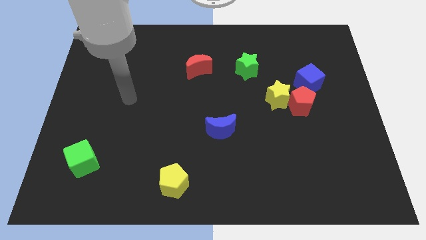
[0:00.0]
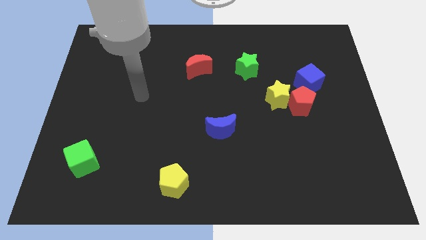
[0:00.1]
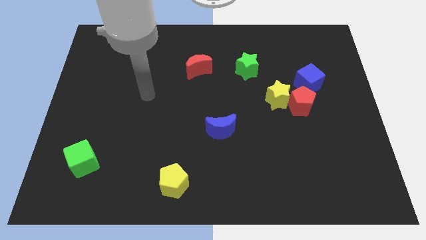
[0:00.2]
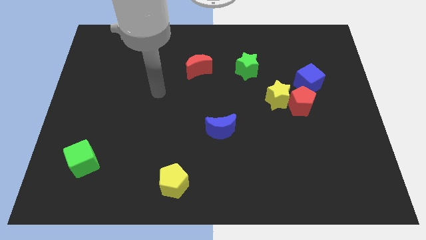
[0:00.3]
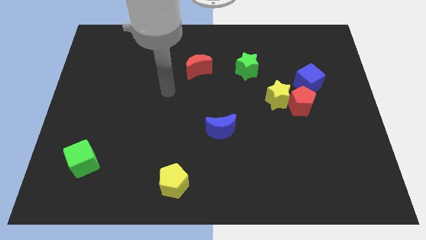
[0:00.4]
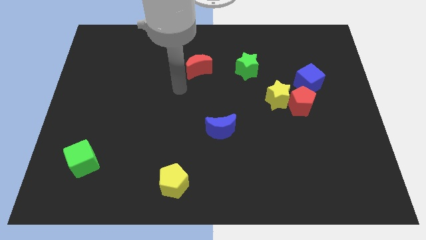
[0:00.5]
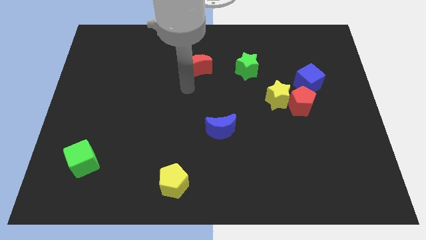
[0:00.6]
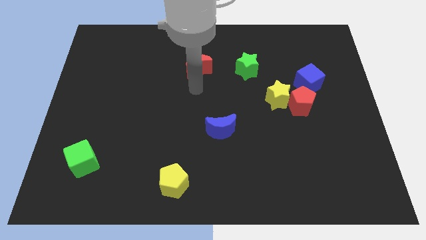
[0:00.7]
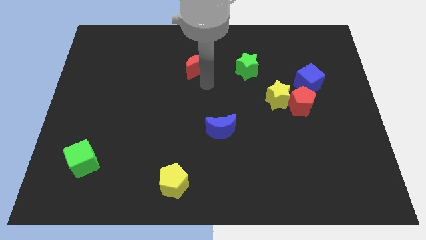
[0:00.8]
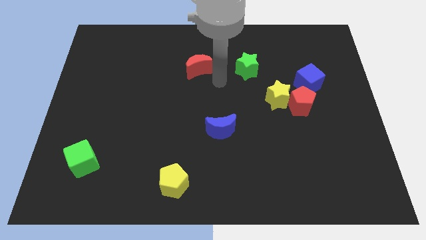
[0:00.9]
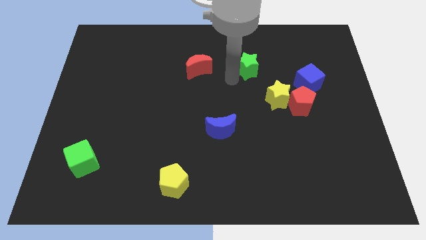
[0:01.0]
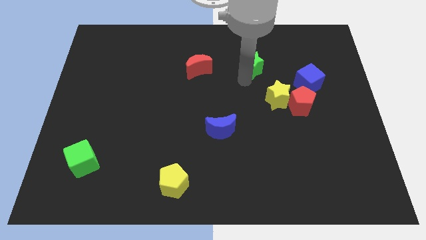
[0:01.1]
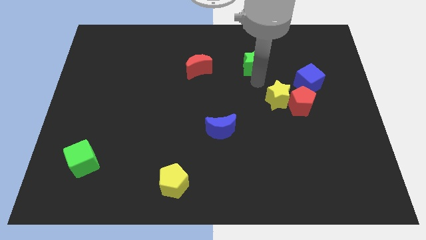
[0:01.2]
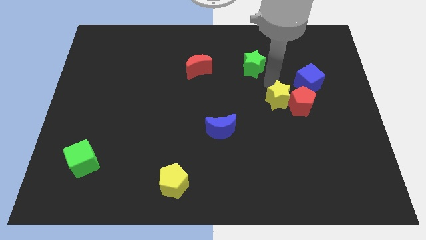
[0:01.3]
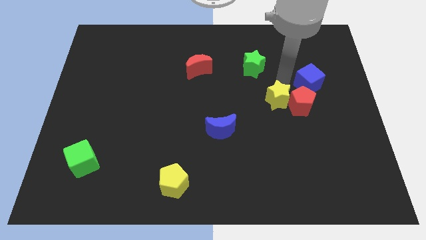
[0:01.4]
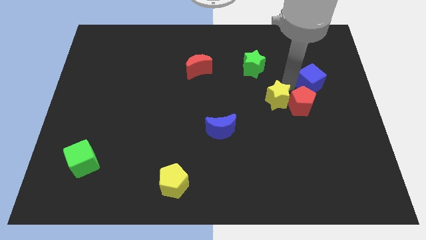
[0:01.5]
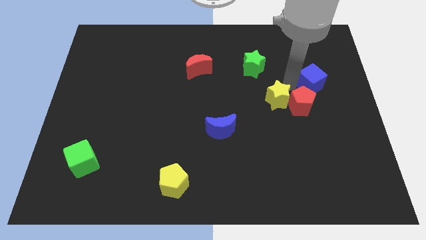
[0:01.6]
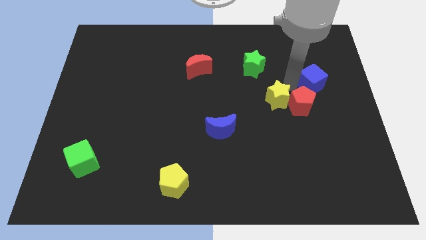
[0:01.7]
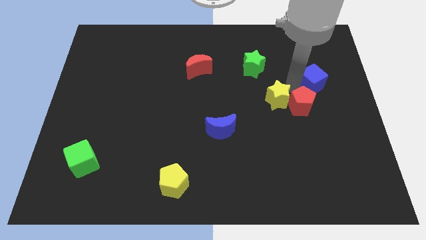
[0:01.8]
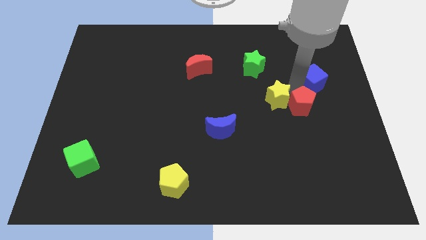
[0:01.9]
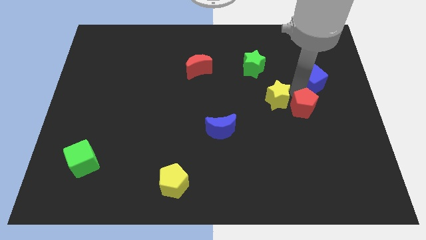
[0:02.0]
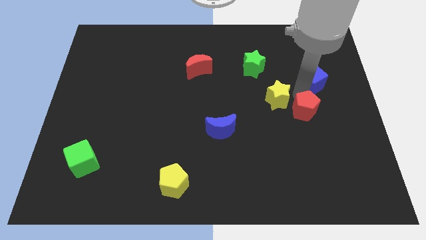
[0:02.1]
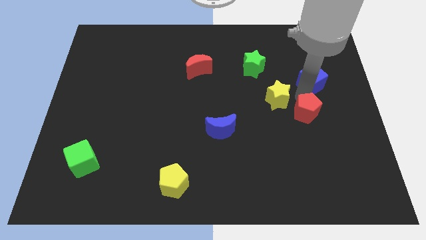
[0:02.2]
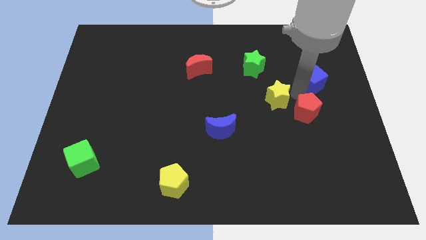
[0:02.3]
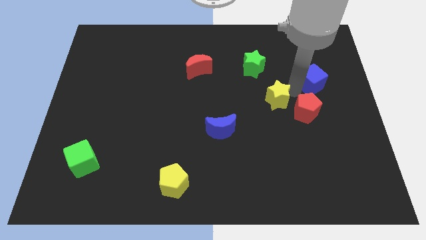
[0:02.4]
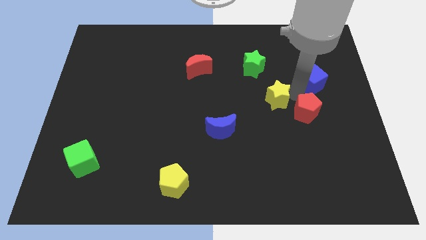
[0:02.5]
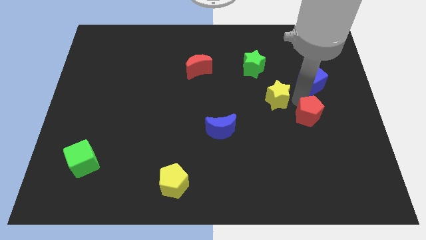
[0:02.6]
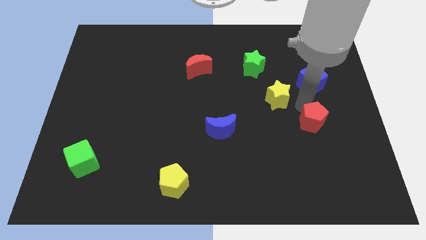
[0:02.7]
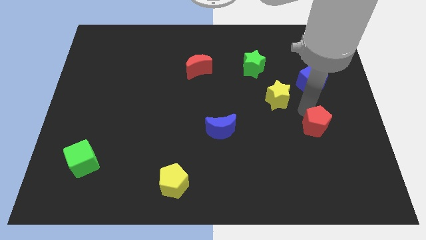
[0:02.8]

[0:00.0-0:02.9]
separate the red pentagon from the yellow star and blue cube

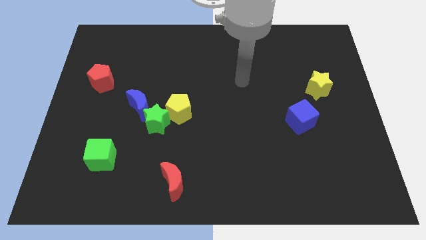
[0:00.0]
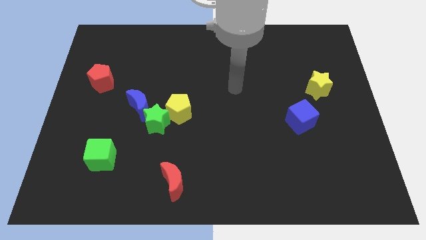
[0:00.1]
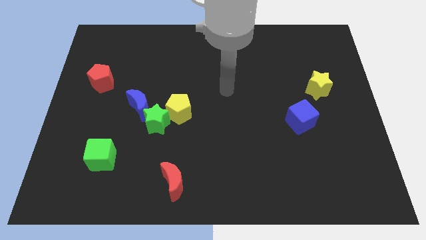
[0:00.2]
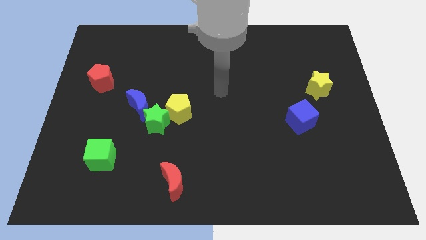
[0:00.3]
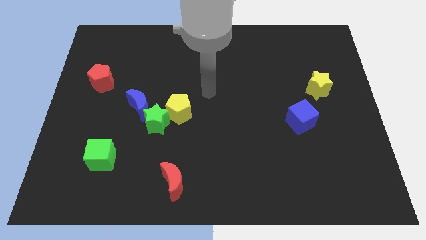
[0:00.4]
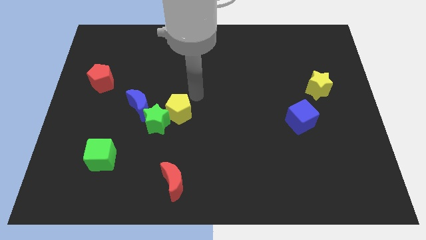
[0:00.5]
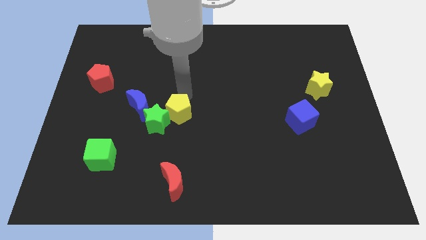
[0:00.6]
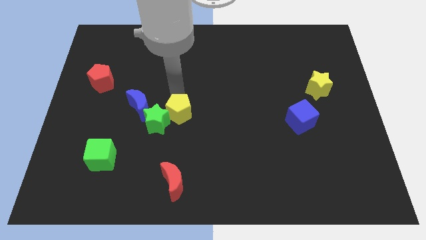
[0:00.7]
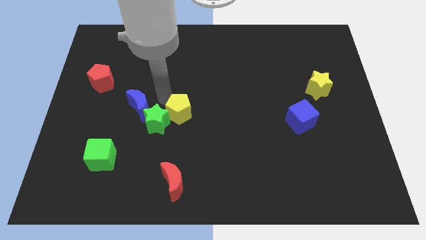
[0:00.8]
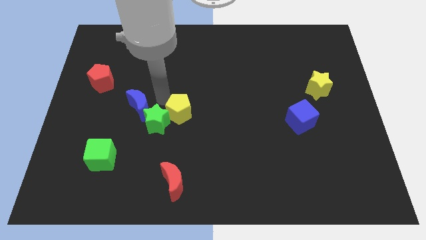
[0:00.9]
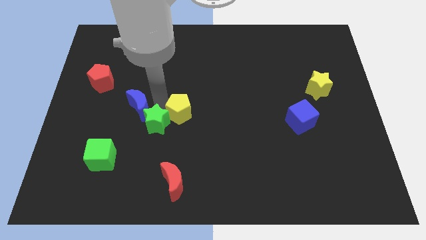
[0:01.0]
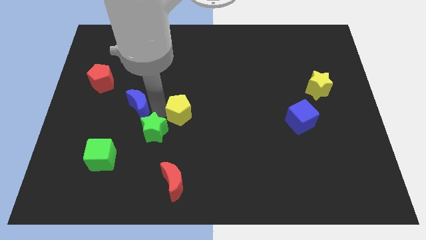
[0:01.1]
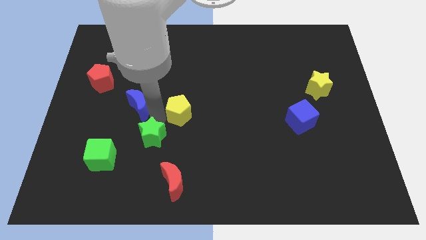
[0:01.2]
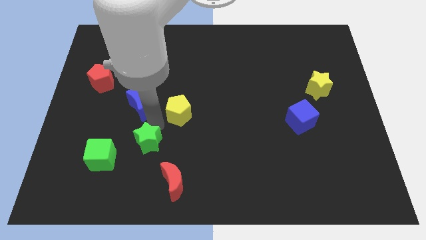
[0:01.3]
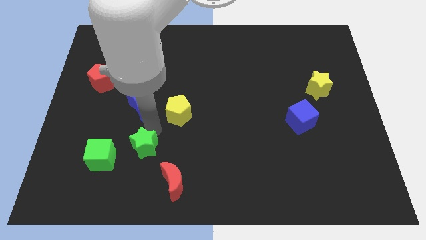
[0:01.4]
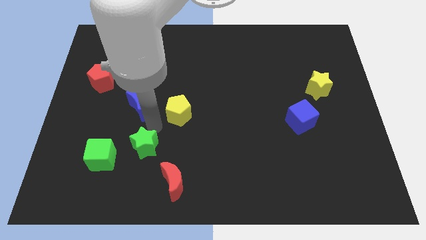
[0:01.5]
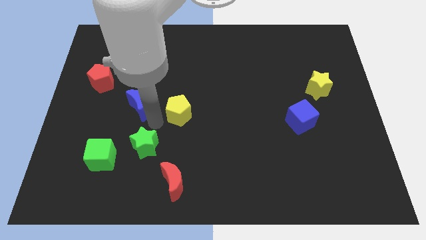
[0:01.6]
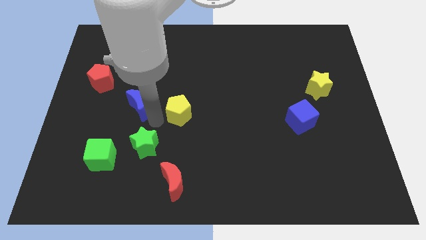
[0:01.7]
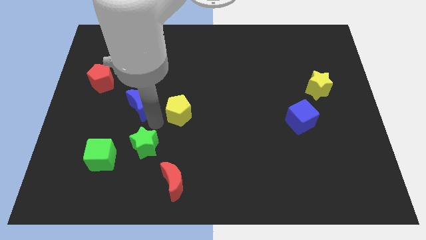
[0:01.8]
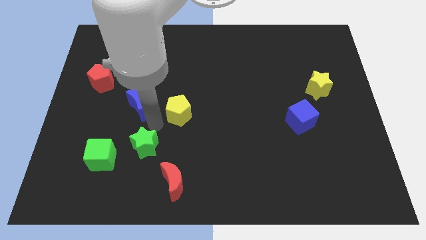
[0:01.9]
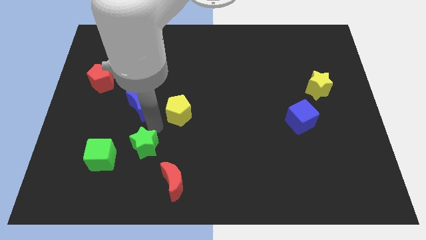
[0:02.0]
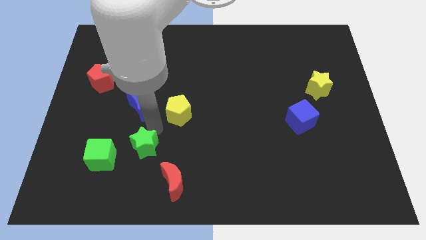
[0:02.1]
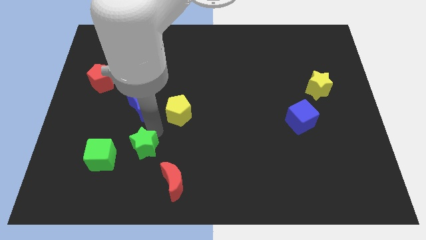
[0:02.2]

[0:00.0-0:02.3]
pull the green star apart from the yellow pentagon and blue moon

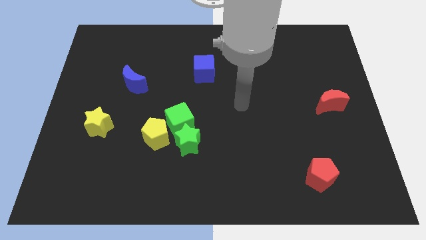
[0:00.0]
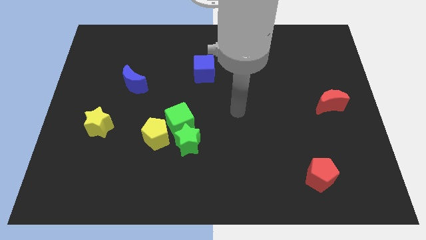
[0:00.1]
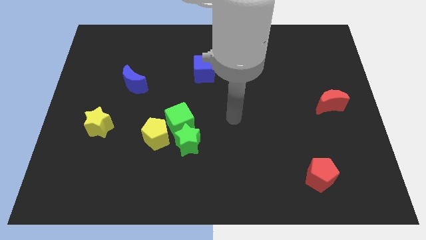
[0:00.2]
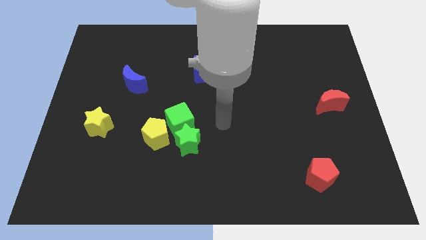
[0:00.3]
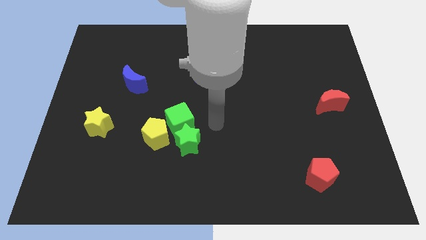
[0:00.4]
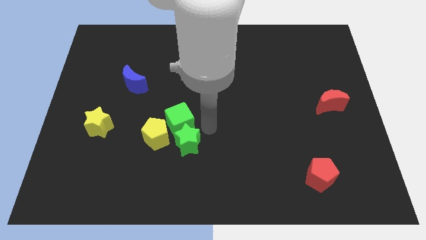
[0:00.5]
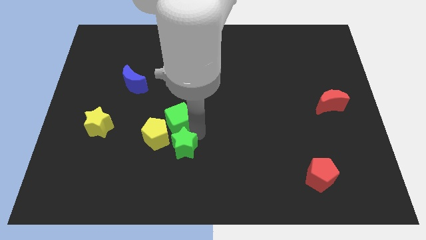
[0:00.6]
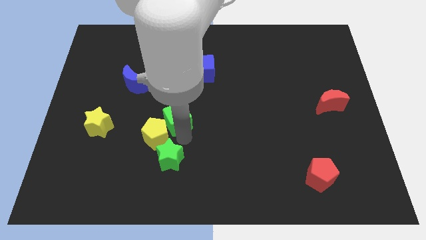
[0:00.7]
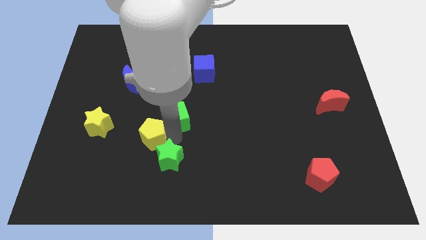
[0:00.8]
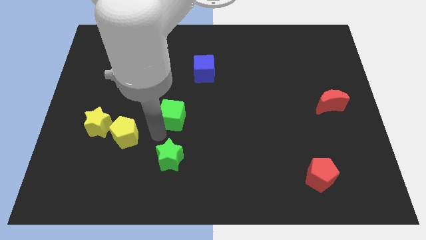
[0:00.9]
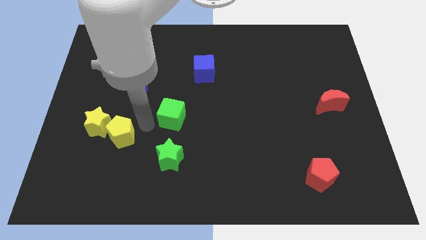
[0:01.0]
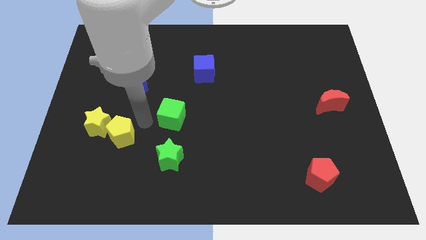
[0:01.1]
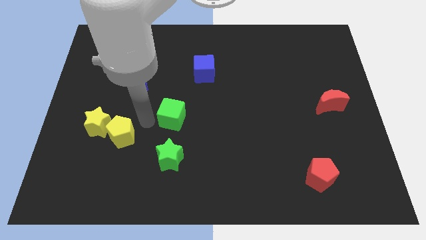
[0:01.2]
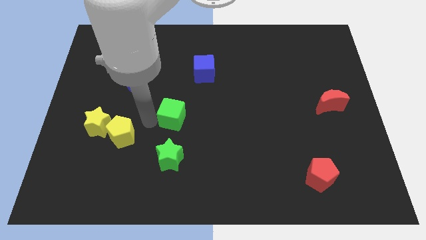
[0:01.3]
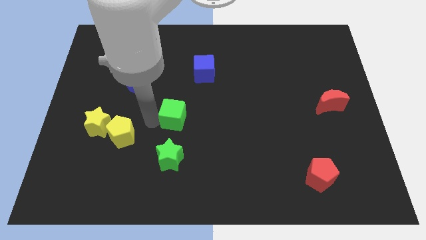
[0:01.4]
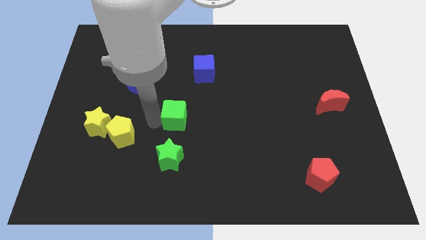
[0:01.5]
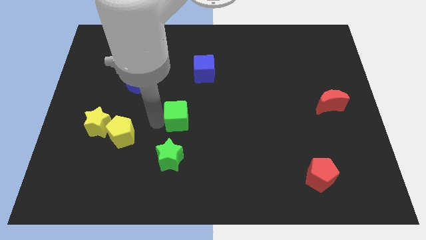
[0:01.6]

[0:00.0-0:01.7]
move the green cube away from the green star and yellow pentagon

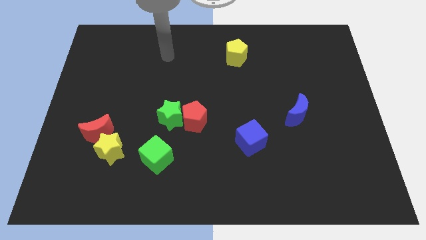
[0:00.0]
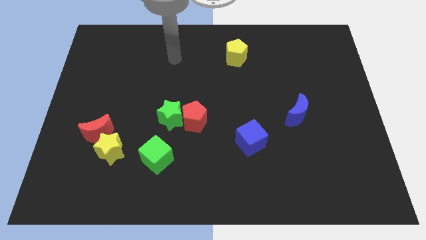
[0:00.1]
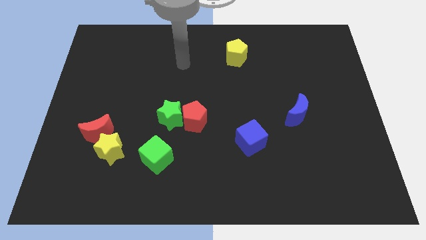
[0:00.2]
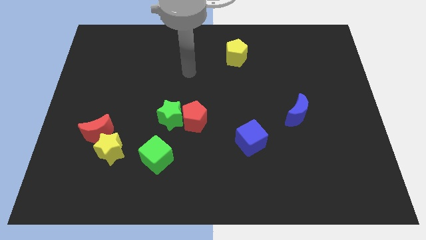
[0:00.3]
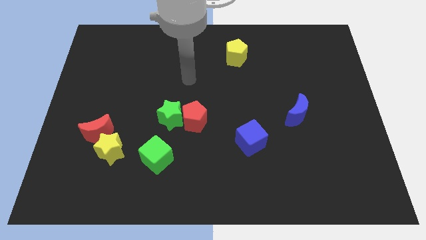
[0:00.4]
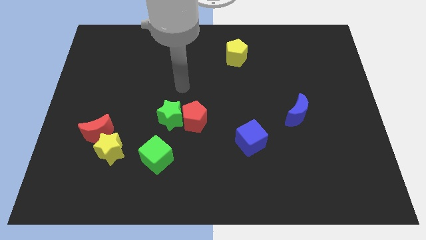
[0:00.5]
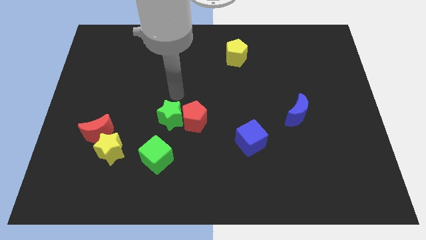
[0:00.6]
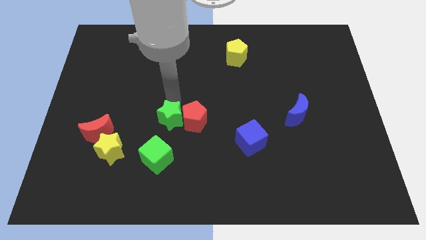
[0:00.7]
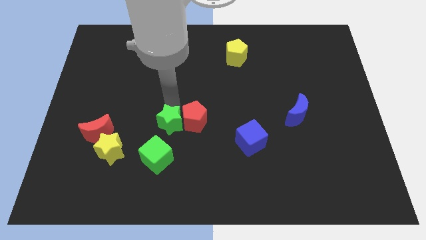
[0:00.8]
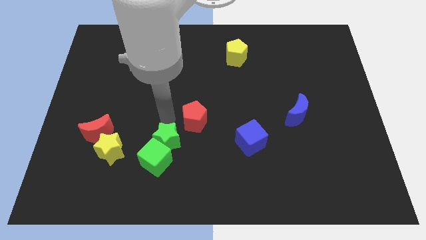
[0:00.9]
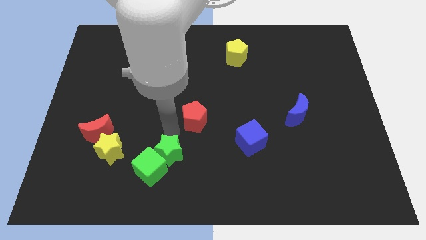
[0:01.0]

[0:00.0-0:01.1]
separate the red pentagon from the green star

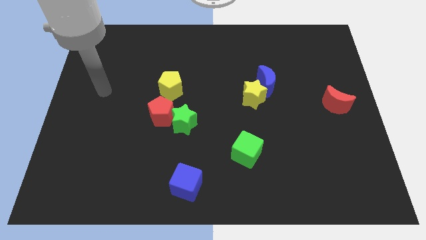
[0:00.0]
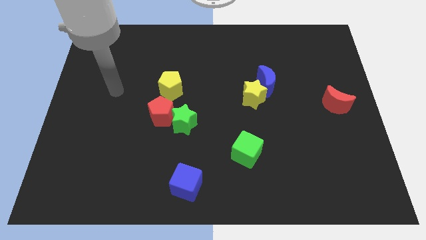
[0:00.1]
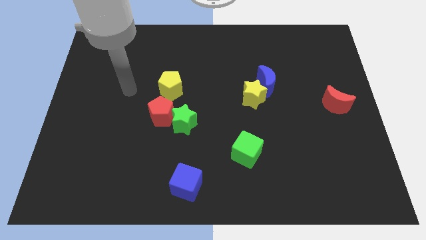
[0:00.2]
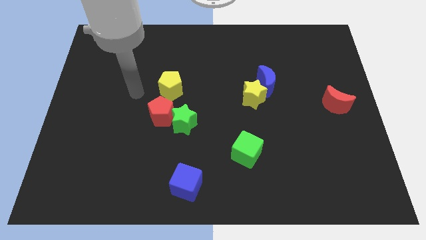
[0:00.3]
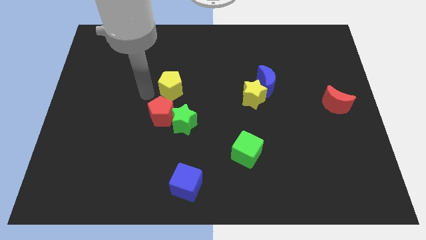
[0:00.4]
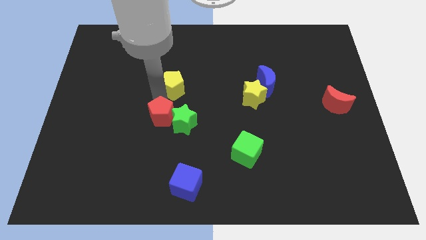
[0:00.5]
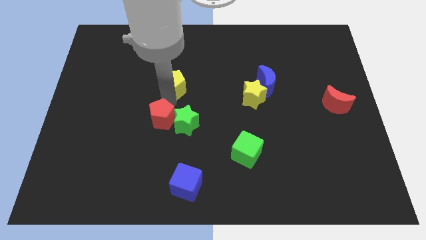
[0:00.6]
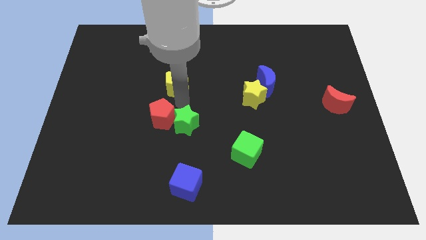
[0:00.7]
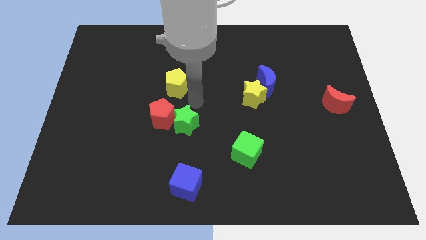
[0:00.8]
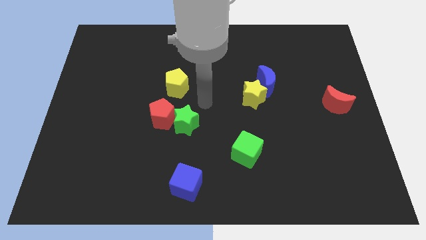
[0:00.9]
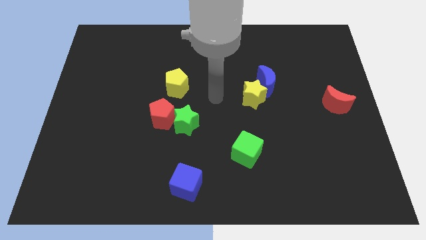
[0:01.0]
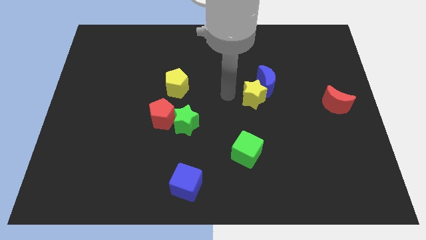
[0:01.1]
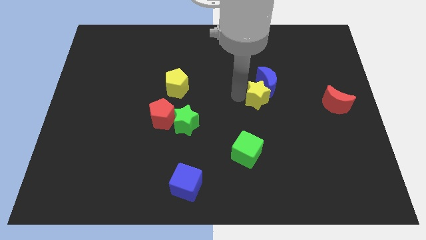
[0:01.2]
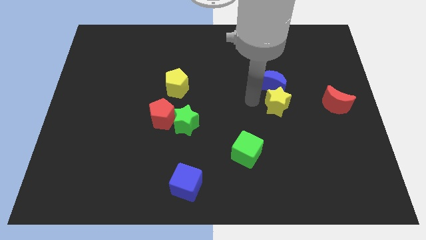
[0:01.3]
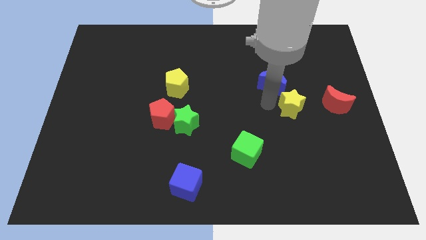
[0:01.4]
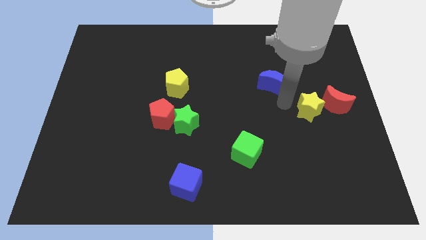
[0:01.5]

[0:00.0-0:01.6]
separate the blue moon from the yellow star
